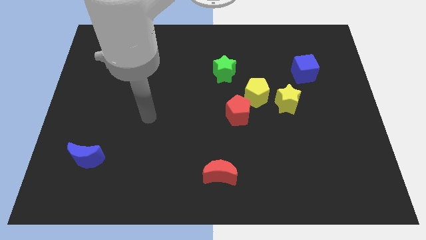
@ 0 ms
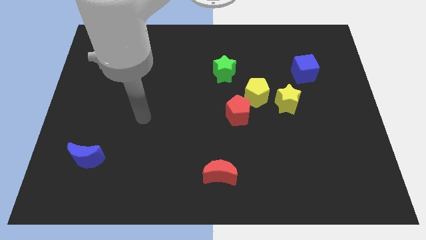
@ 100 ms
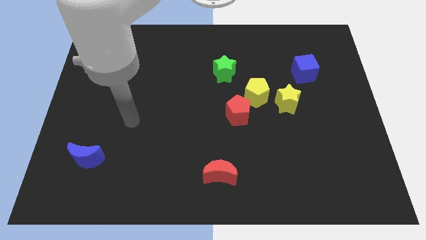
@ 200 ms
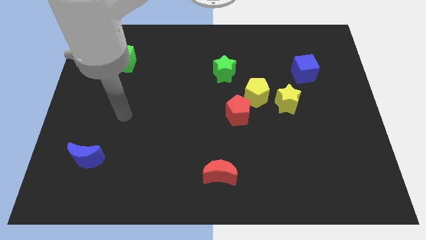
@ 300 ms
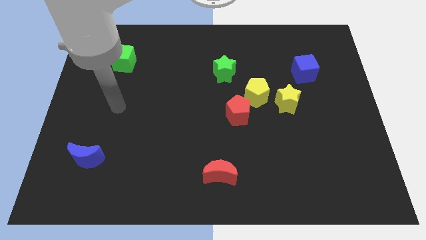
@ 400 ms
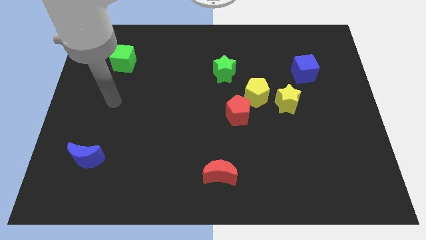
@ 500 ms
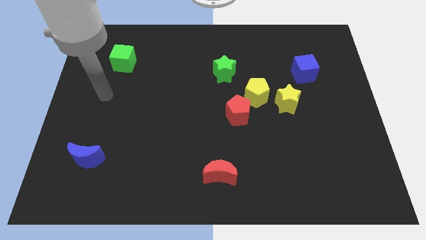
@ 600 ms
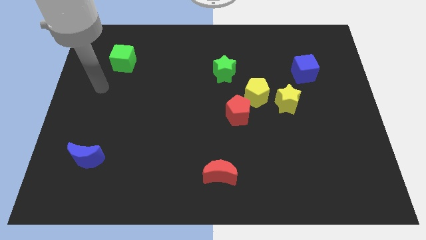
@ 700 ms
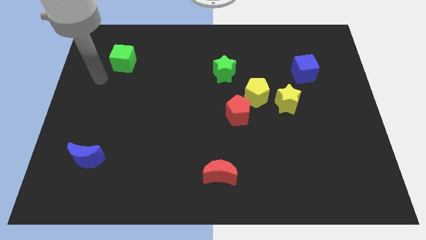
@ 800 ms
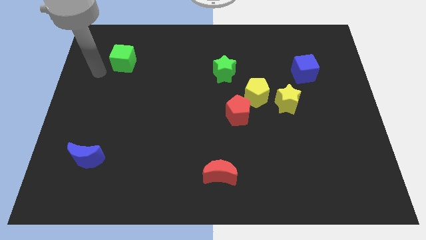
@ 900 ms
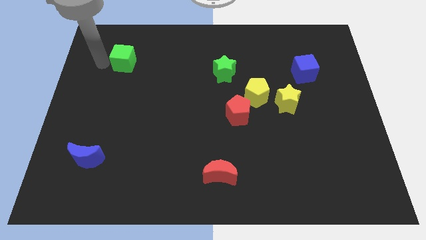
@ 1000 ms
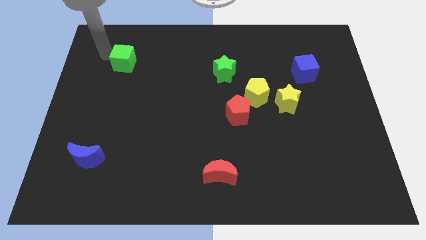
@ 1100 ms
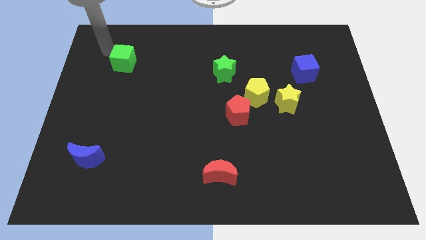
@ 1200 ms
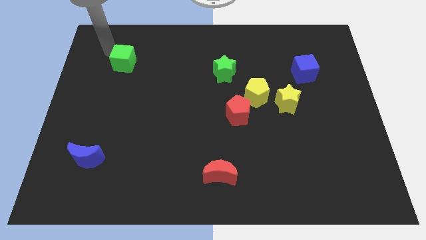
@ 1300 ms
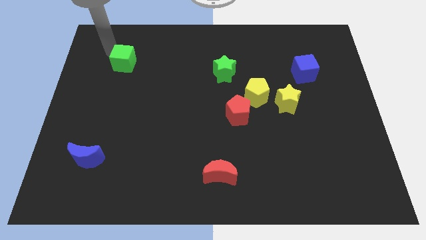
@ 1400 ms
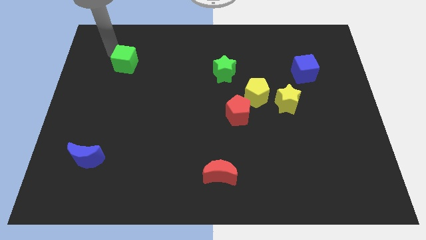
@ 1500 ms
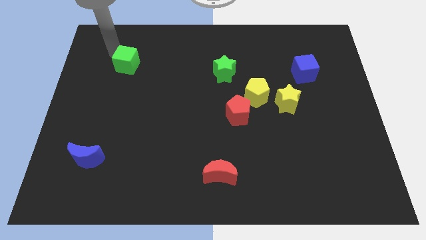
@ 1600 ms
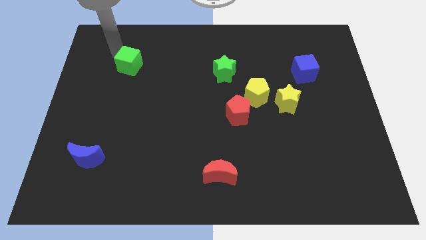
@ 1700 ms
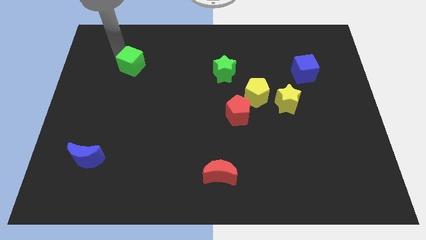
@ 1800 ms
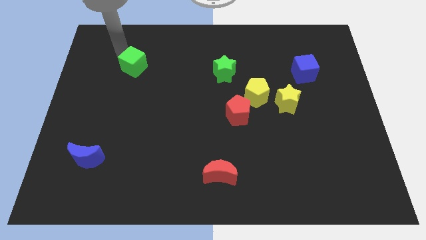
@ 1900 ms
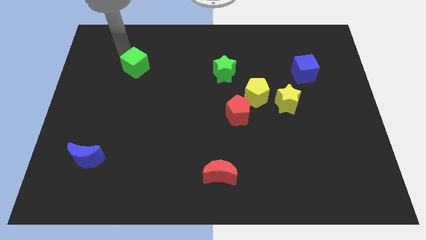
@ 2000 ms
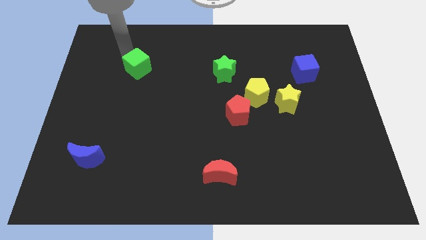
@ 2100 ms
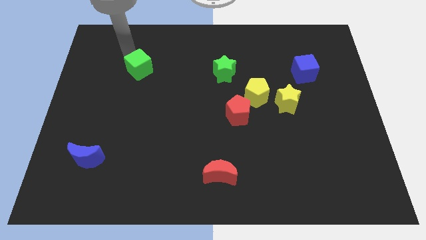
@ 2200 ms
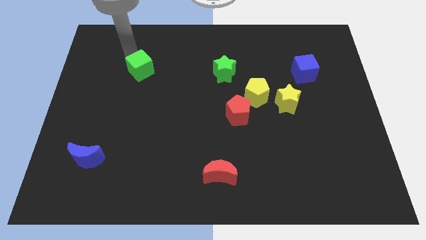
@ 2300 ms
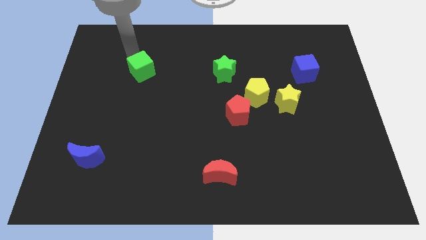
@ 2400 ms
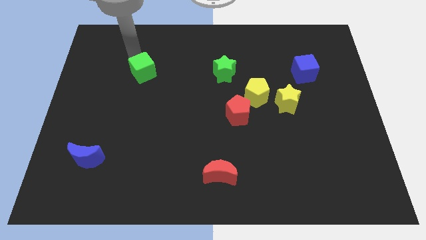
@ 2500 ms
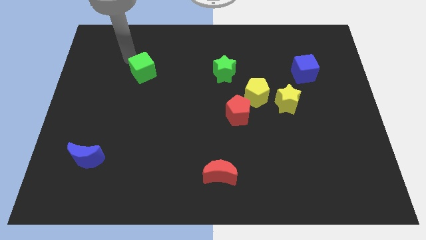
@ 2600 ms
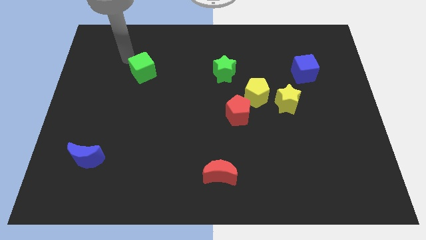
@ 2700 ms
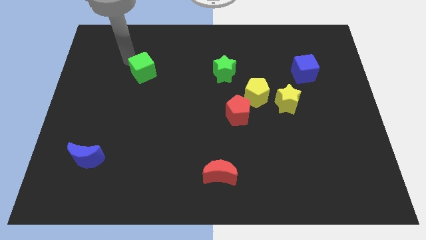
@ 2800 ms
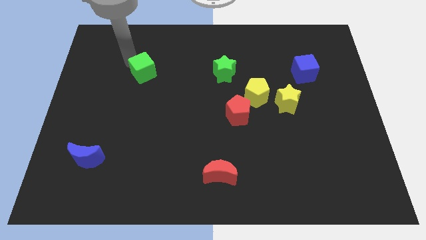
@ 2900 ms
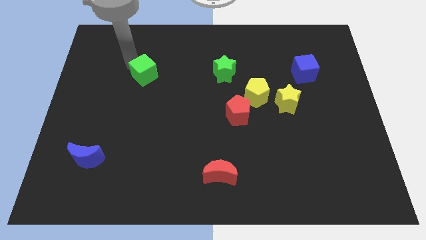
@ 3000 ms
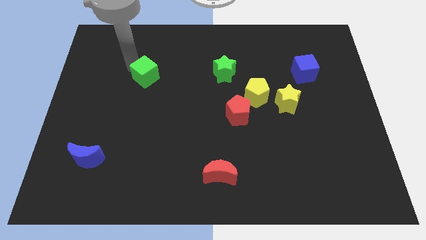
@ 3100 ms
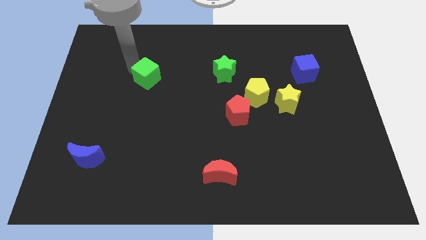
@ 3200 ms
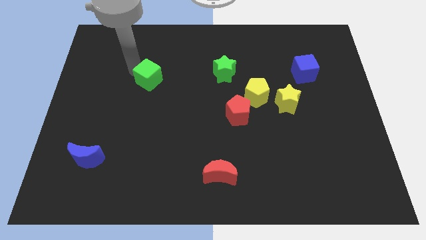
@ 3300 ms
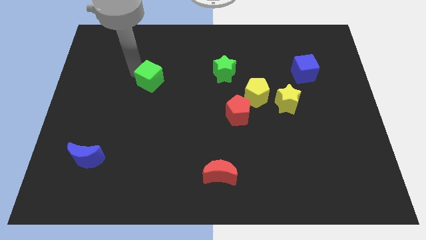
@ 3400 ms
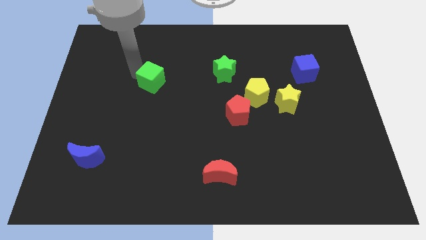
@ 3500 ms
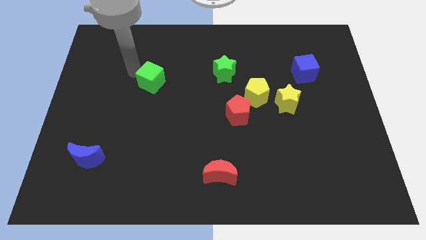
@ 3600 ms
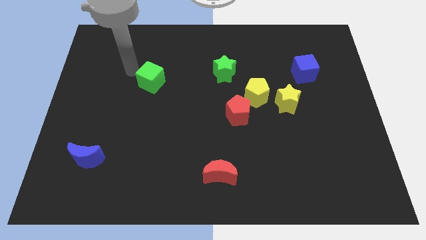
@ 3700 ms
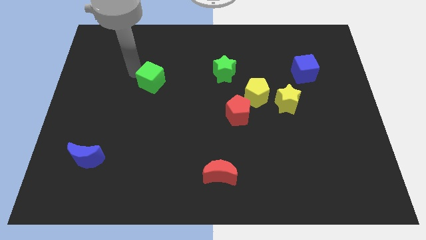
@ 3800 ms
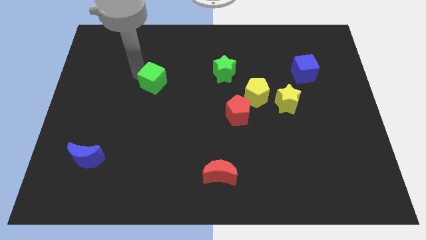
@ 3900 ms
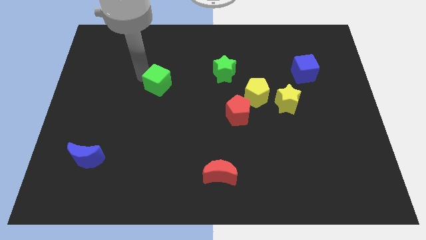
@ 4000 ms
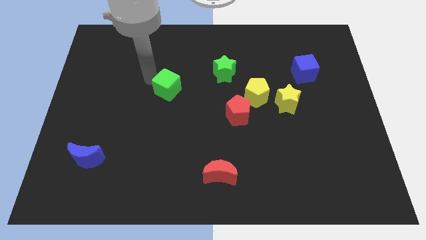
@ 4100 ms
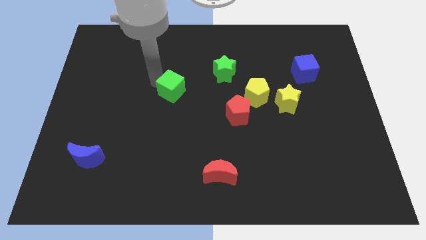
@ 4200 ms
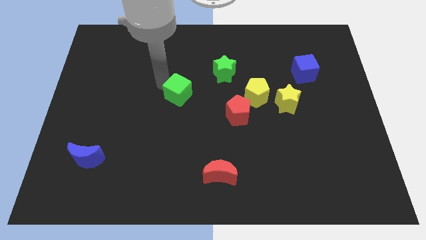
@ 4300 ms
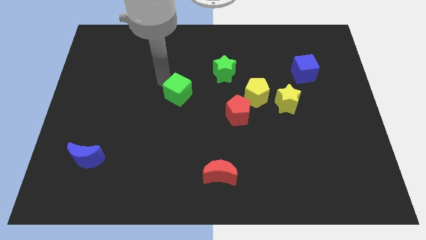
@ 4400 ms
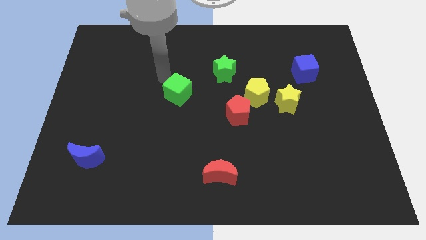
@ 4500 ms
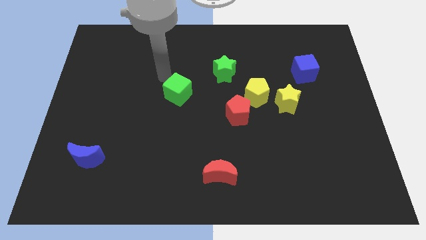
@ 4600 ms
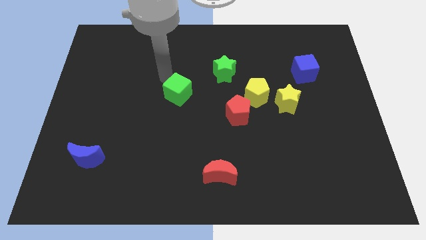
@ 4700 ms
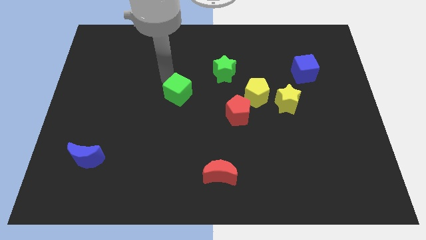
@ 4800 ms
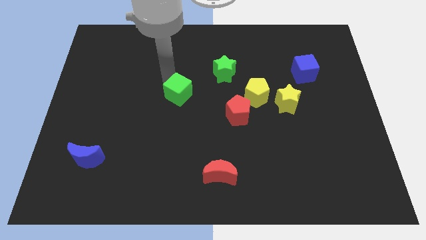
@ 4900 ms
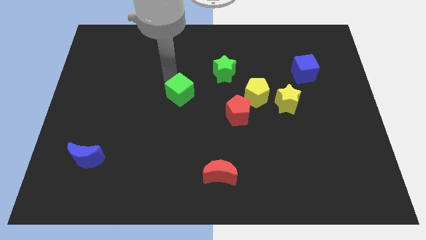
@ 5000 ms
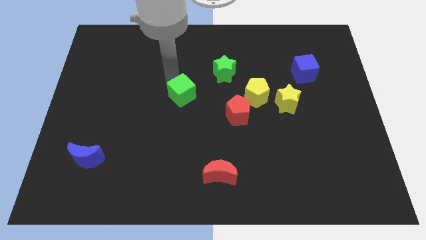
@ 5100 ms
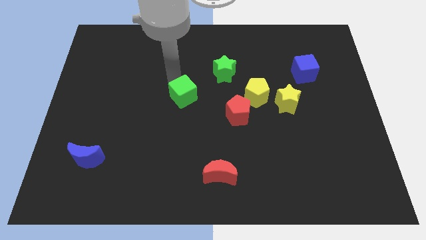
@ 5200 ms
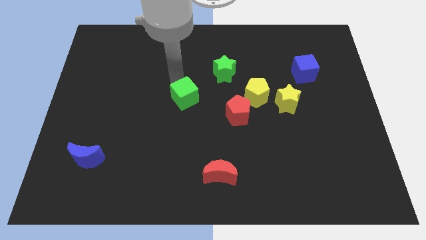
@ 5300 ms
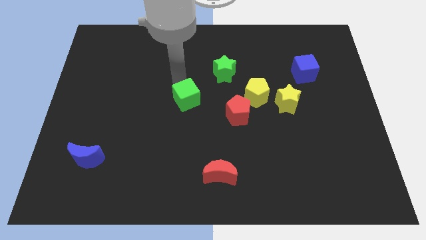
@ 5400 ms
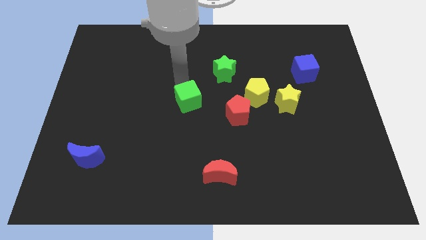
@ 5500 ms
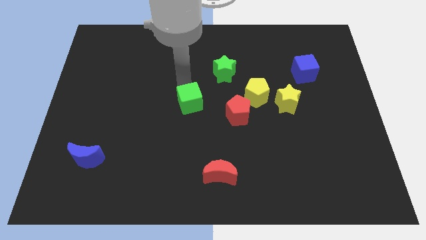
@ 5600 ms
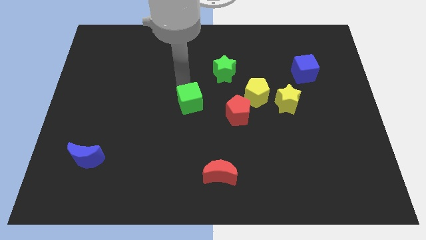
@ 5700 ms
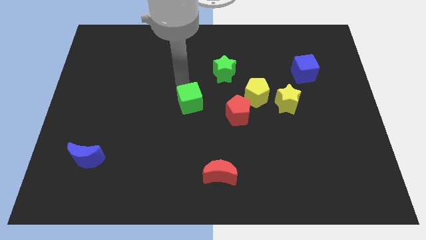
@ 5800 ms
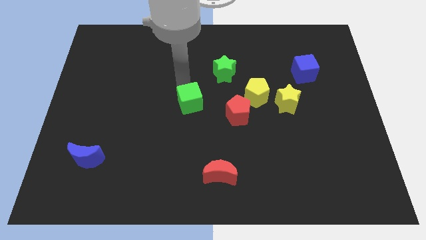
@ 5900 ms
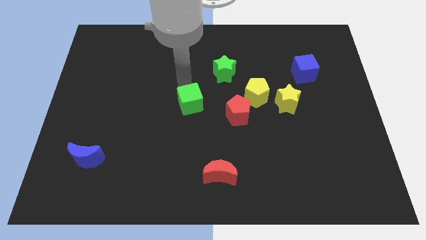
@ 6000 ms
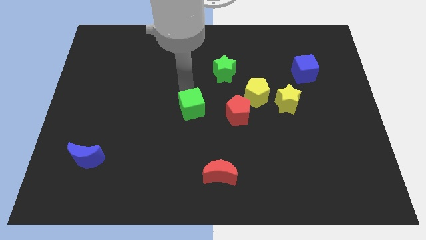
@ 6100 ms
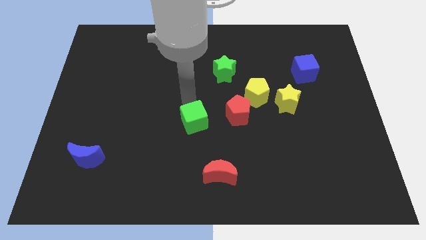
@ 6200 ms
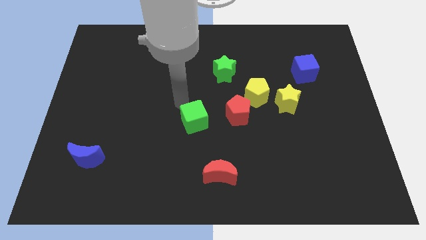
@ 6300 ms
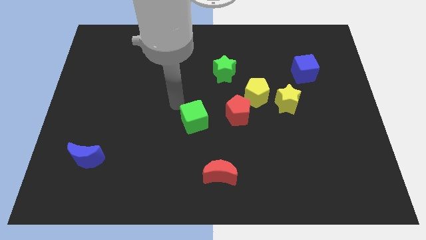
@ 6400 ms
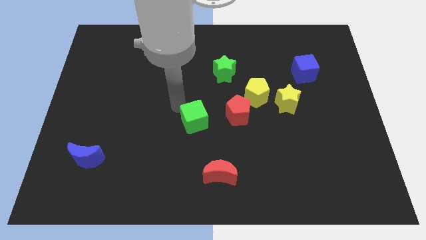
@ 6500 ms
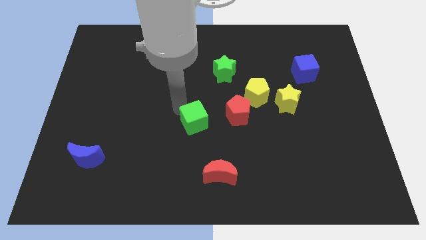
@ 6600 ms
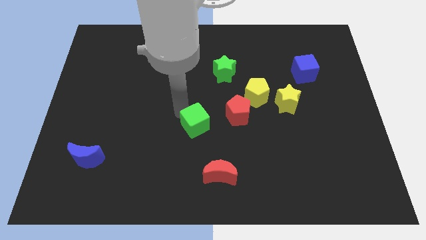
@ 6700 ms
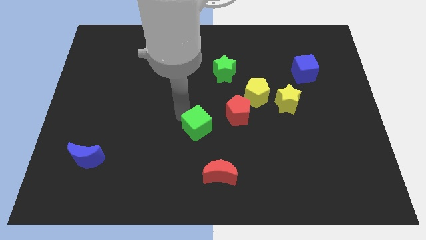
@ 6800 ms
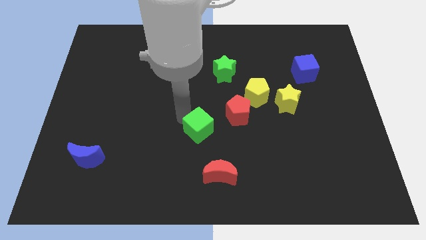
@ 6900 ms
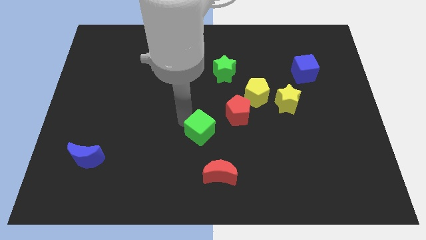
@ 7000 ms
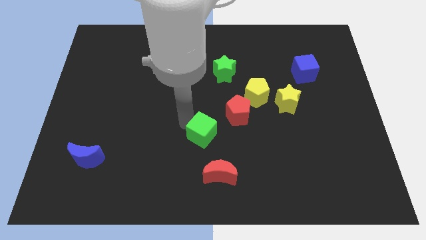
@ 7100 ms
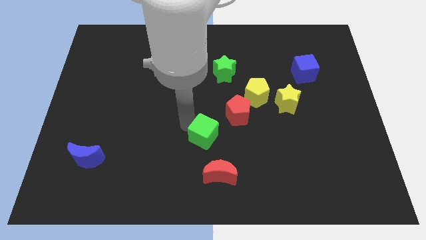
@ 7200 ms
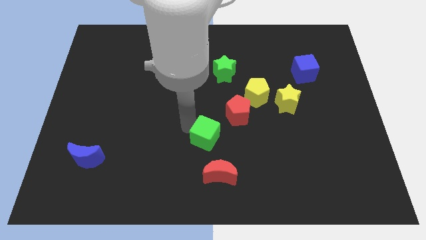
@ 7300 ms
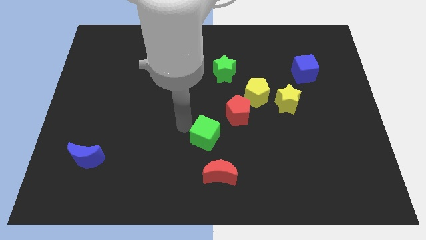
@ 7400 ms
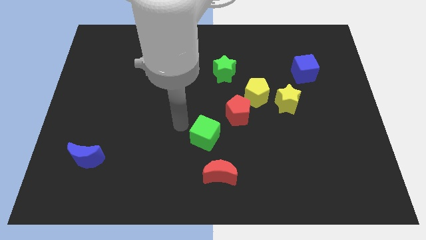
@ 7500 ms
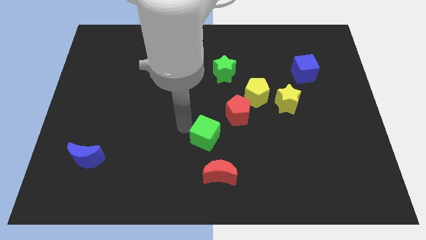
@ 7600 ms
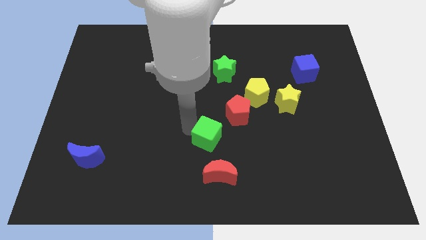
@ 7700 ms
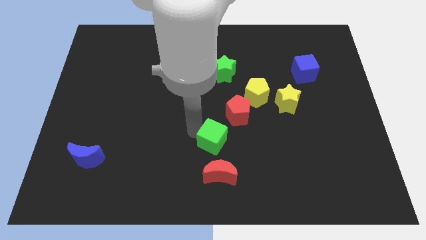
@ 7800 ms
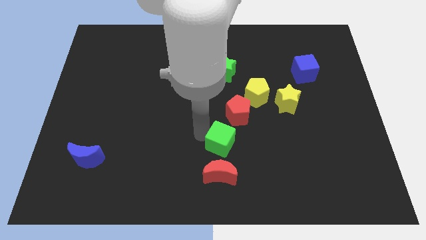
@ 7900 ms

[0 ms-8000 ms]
move the green cube to the bottom side of the red pentagon
